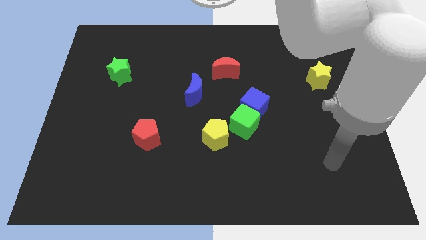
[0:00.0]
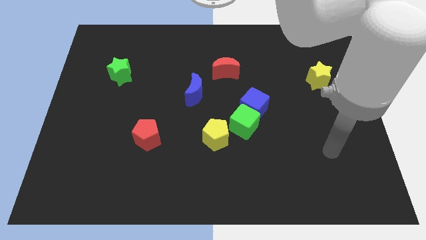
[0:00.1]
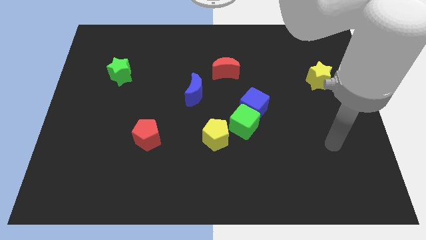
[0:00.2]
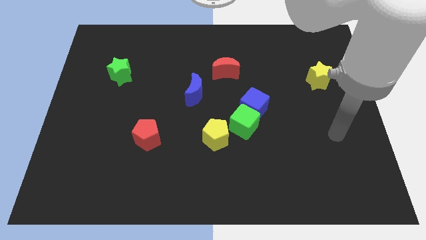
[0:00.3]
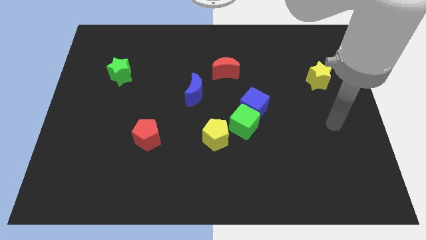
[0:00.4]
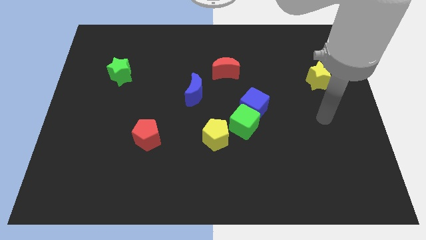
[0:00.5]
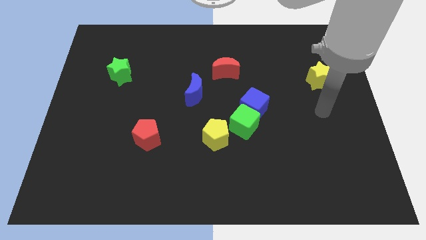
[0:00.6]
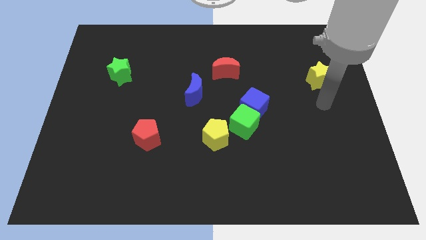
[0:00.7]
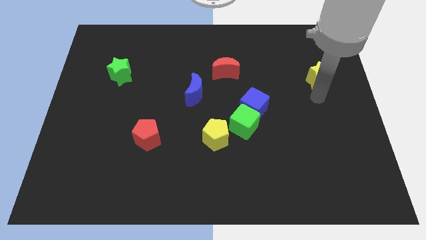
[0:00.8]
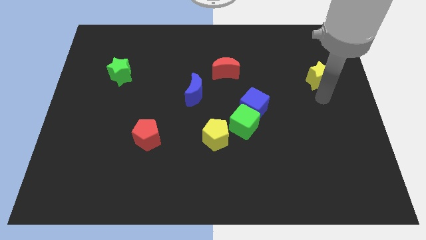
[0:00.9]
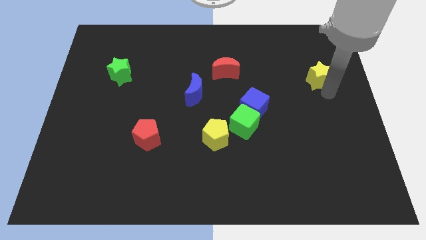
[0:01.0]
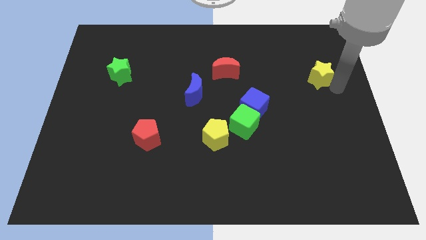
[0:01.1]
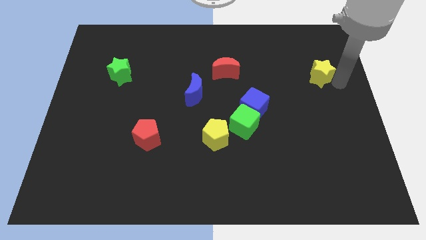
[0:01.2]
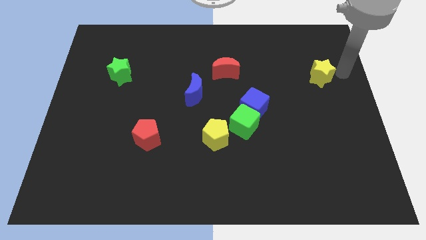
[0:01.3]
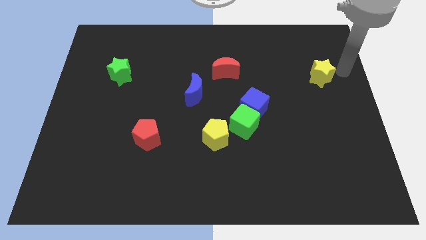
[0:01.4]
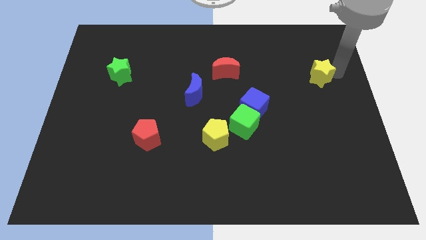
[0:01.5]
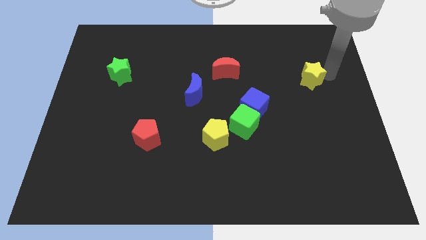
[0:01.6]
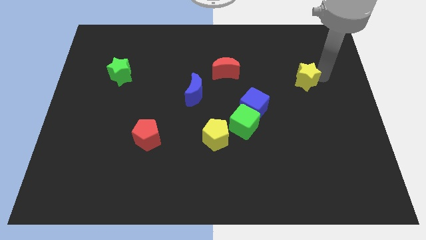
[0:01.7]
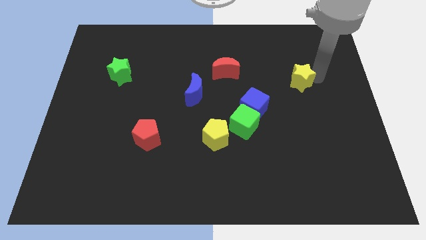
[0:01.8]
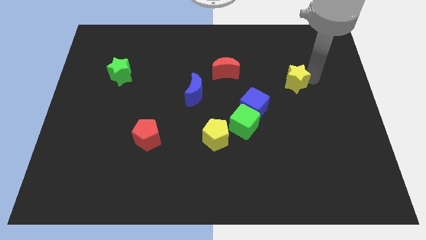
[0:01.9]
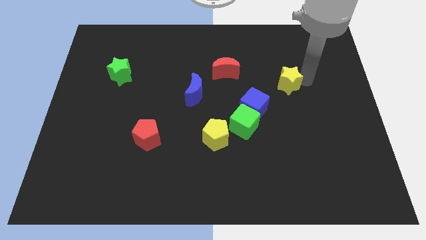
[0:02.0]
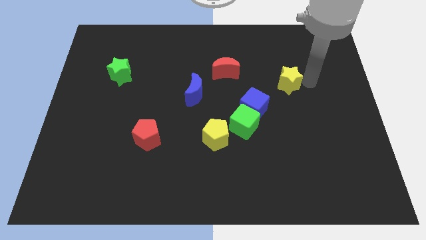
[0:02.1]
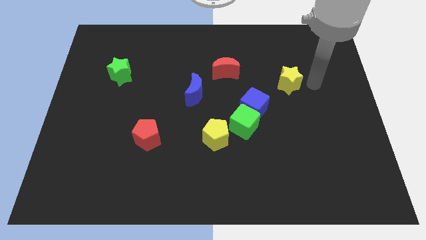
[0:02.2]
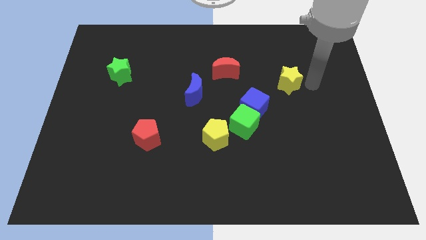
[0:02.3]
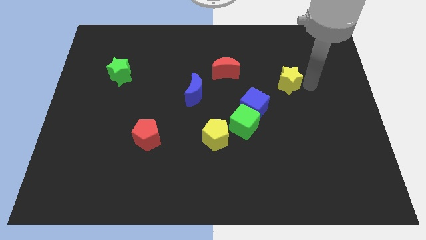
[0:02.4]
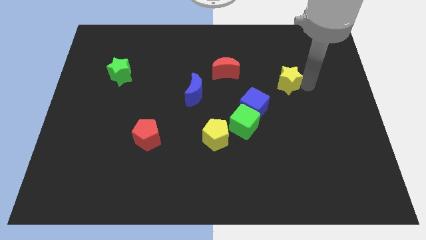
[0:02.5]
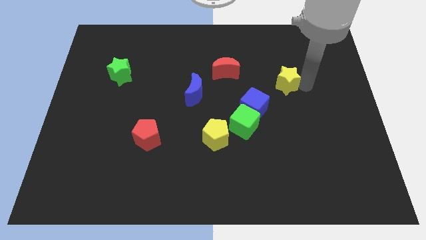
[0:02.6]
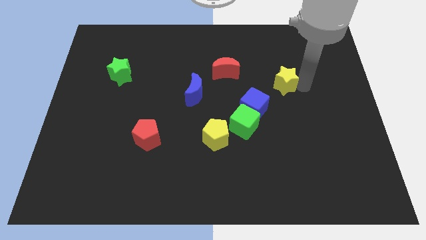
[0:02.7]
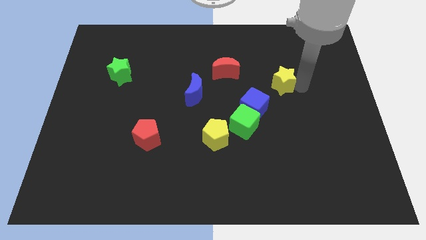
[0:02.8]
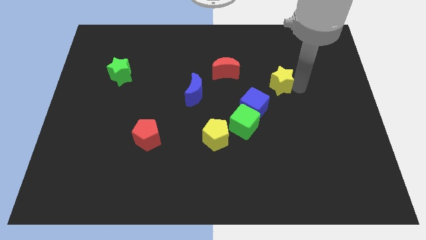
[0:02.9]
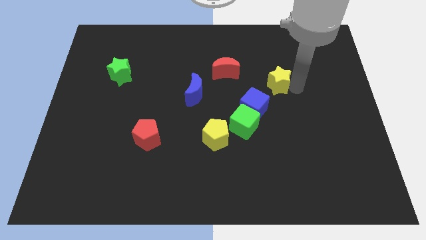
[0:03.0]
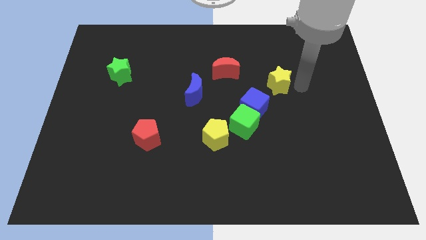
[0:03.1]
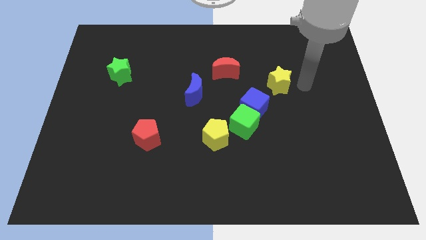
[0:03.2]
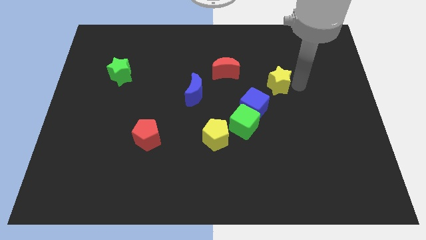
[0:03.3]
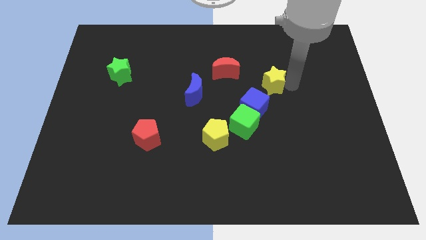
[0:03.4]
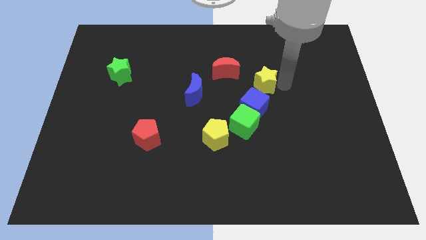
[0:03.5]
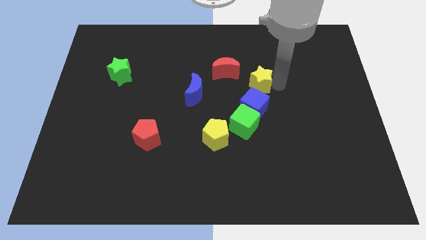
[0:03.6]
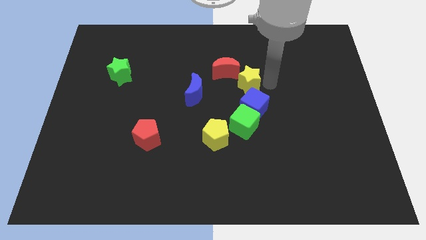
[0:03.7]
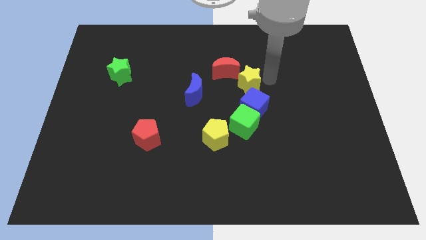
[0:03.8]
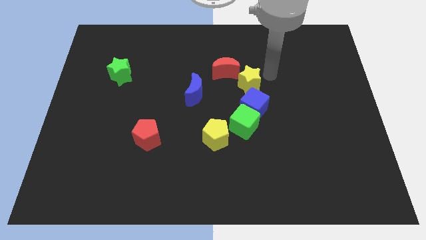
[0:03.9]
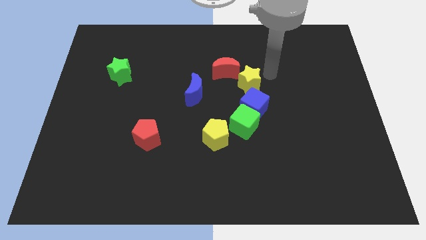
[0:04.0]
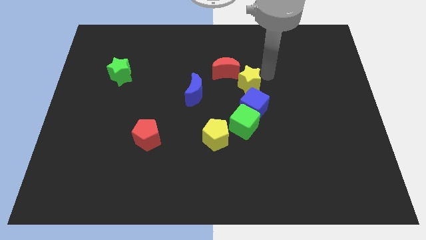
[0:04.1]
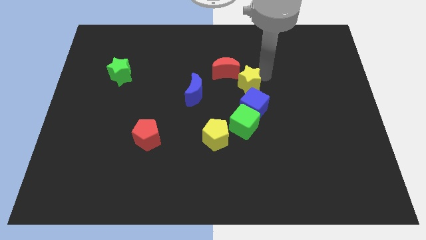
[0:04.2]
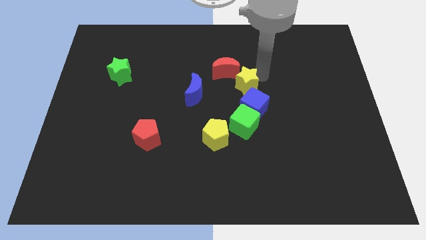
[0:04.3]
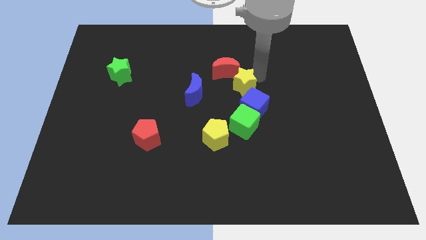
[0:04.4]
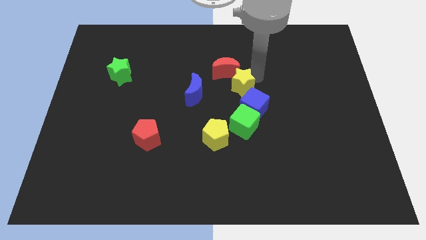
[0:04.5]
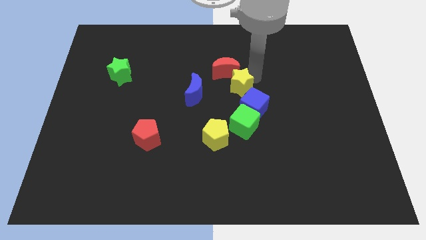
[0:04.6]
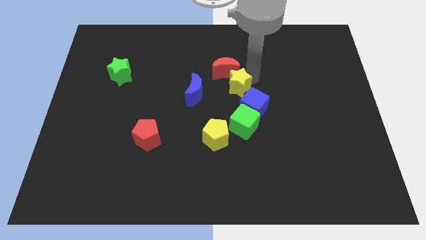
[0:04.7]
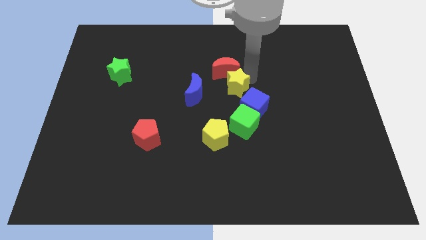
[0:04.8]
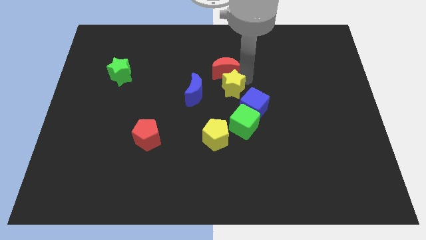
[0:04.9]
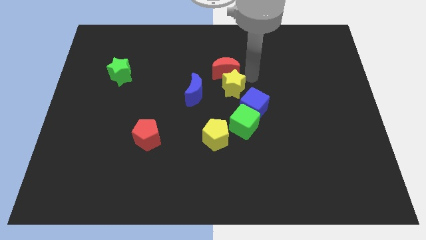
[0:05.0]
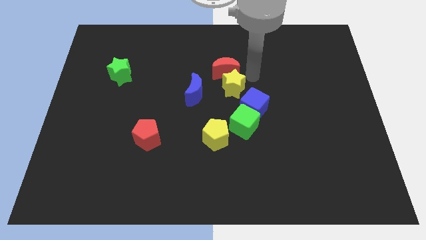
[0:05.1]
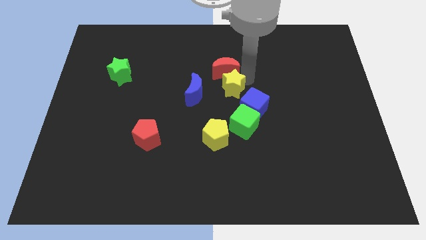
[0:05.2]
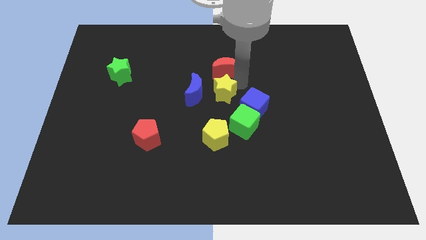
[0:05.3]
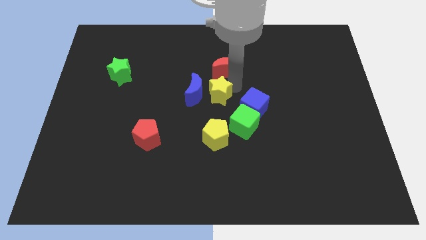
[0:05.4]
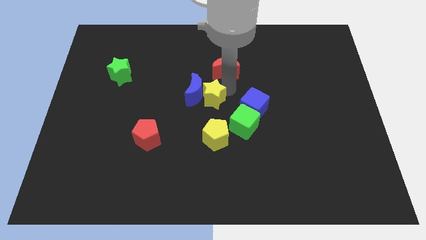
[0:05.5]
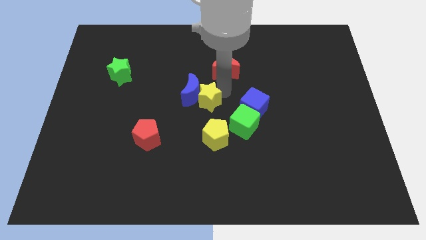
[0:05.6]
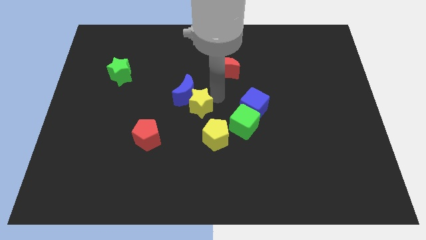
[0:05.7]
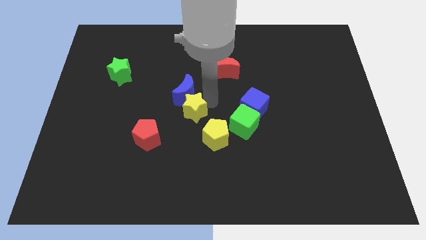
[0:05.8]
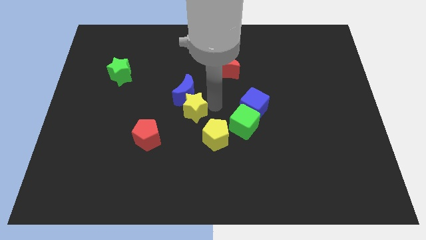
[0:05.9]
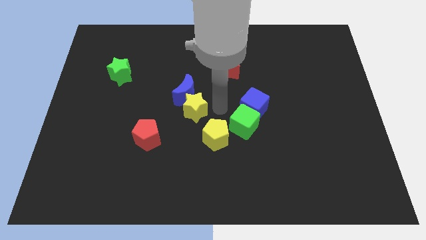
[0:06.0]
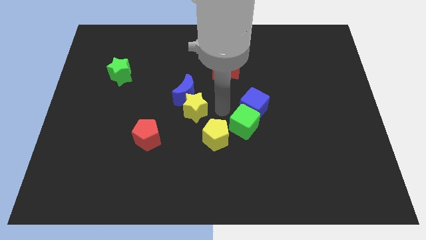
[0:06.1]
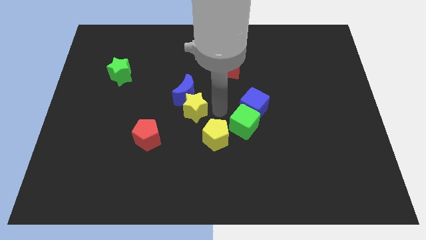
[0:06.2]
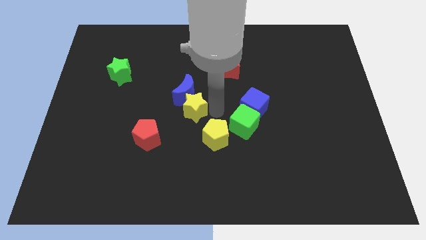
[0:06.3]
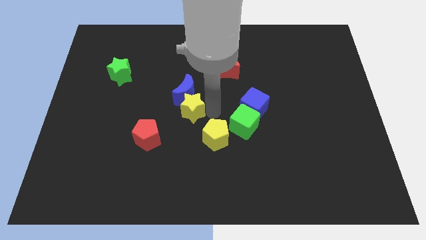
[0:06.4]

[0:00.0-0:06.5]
push the yellow star diagonally down and to the left of the blue moon
